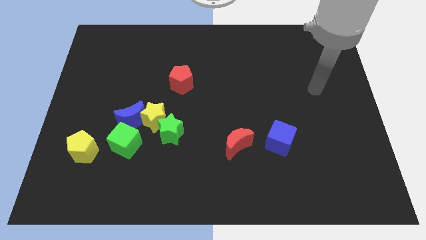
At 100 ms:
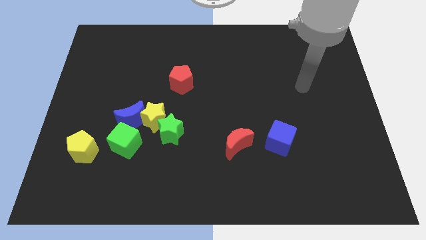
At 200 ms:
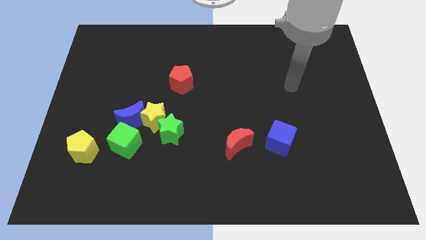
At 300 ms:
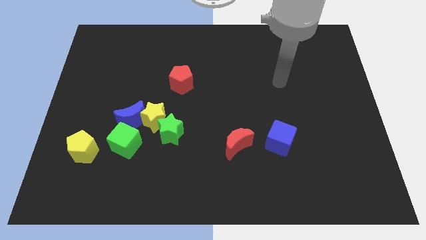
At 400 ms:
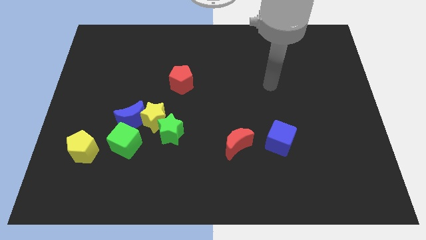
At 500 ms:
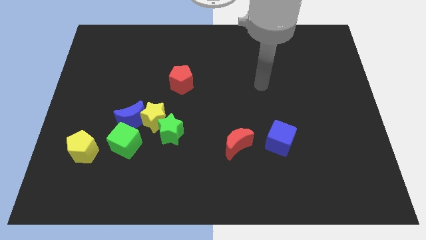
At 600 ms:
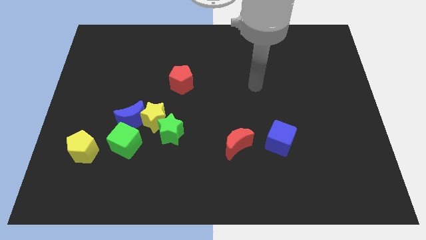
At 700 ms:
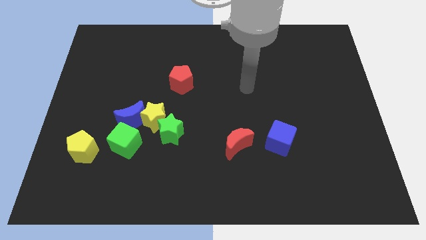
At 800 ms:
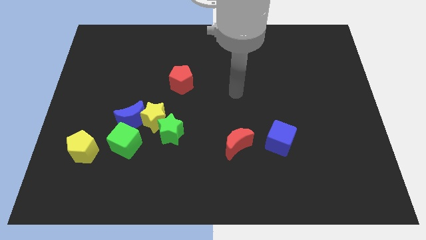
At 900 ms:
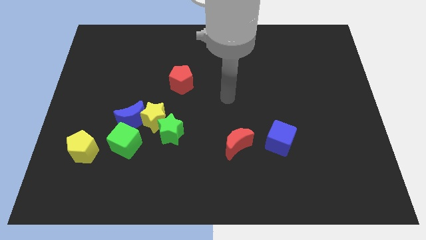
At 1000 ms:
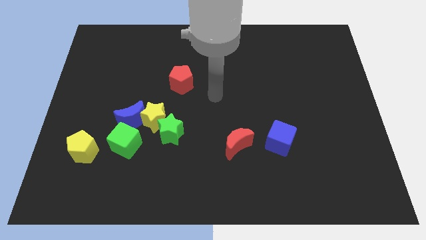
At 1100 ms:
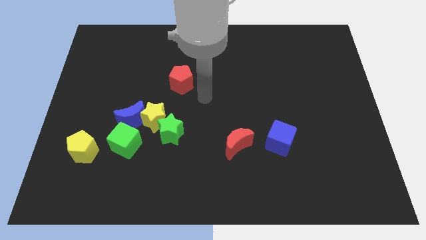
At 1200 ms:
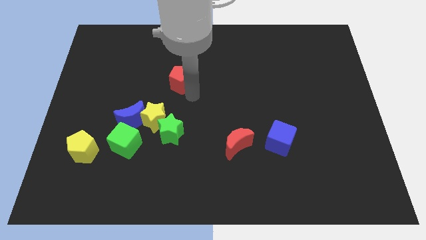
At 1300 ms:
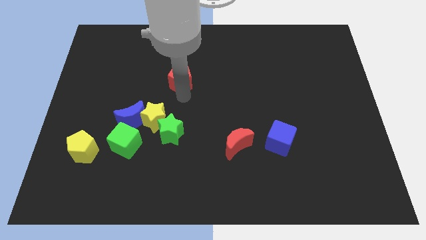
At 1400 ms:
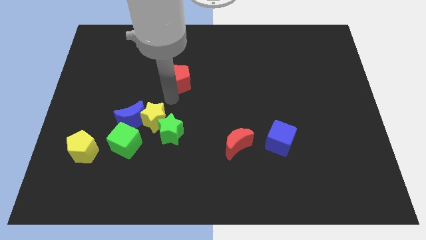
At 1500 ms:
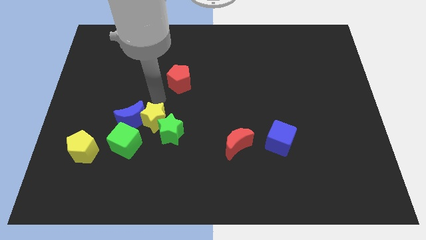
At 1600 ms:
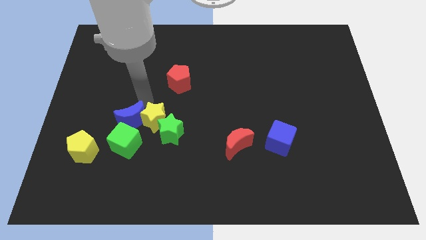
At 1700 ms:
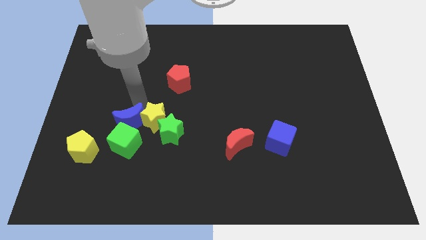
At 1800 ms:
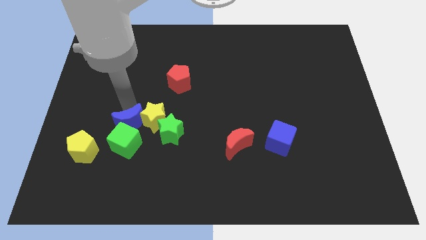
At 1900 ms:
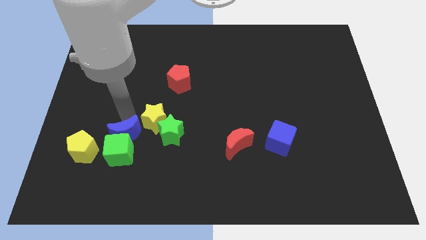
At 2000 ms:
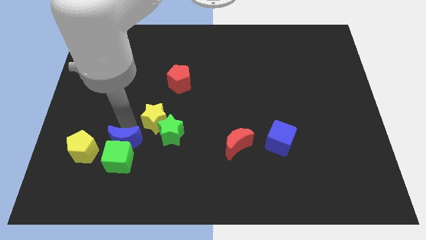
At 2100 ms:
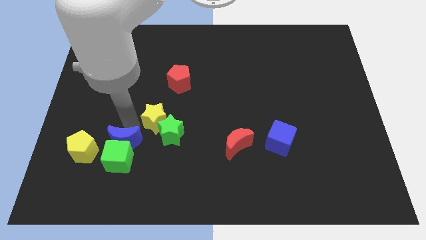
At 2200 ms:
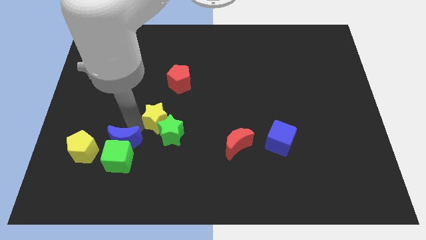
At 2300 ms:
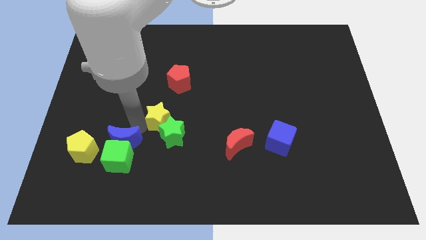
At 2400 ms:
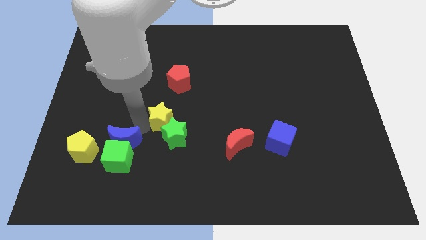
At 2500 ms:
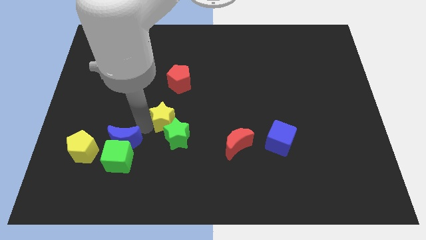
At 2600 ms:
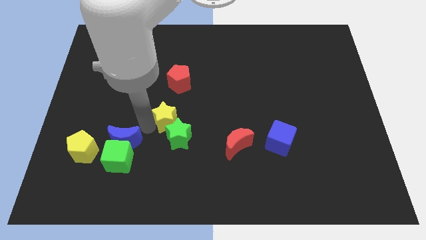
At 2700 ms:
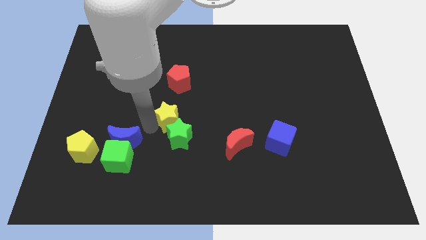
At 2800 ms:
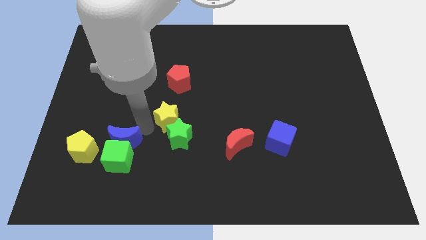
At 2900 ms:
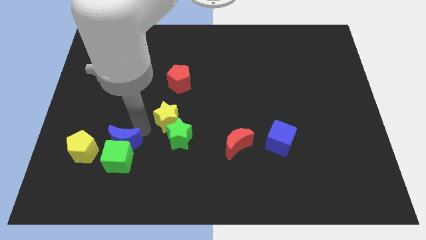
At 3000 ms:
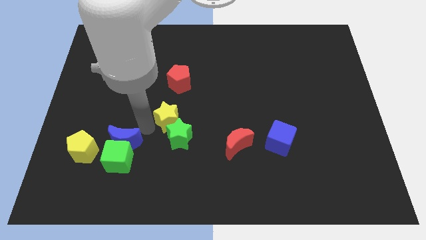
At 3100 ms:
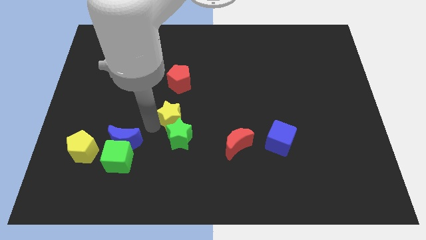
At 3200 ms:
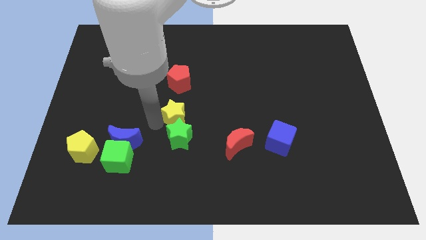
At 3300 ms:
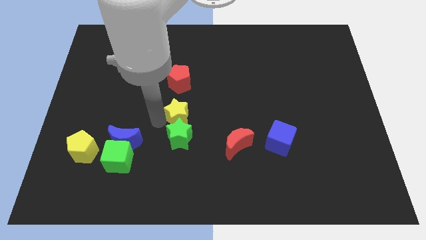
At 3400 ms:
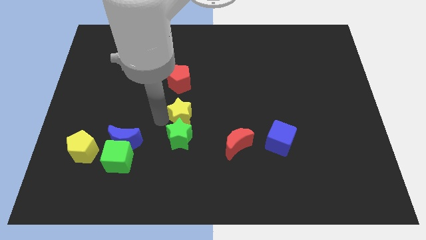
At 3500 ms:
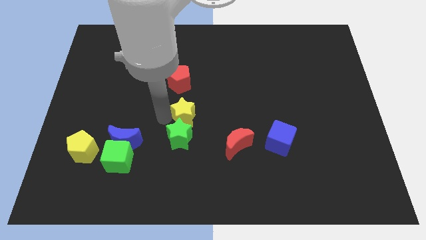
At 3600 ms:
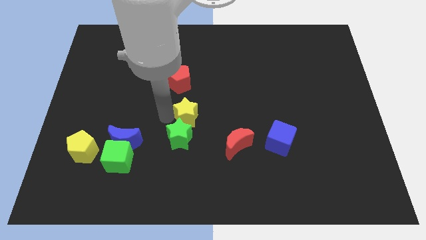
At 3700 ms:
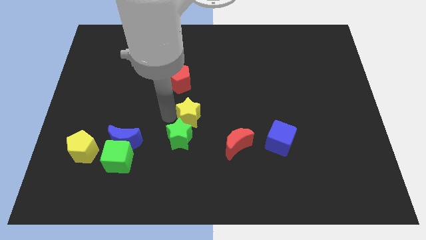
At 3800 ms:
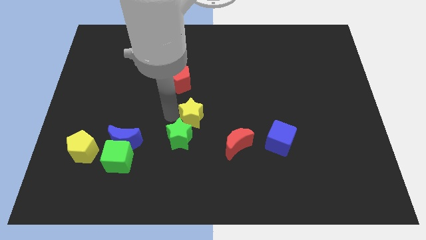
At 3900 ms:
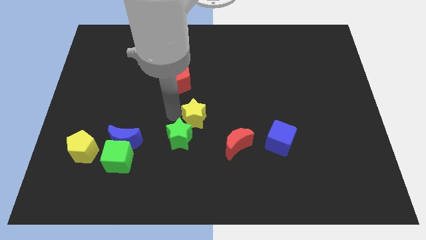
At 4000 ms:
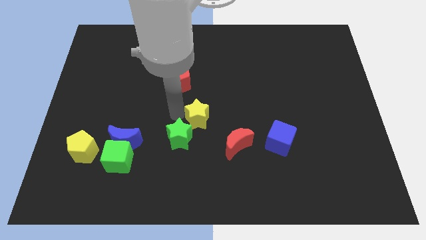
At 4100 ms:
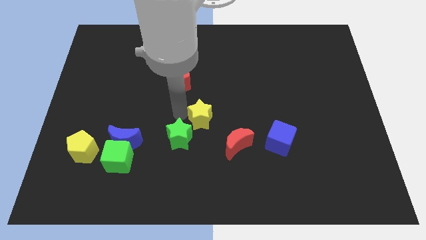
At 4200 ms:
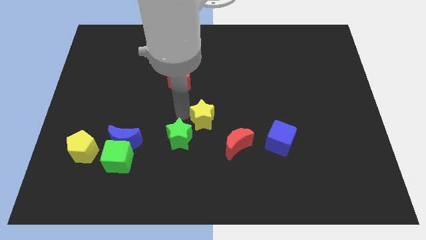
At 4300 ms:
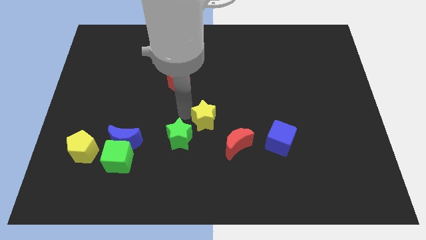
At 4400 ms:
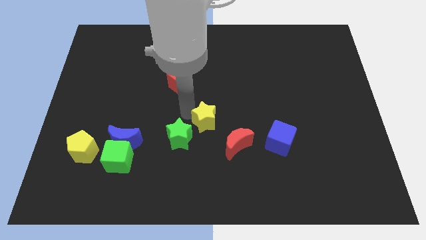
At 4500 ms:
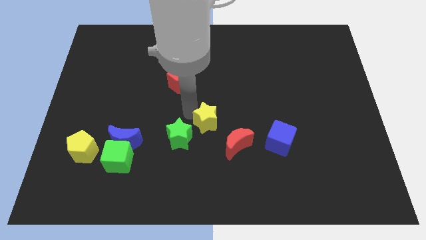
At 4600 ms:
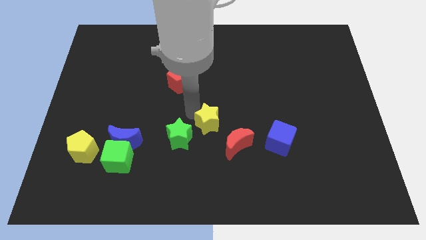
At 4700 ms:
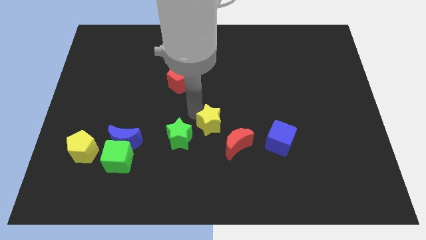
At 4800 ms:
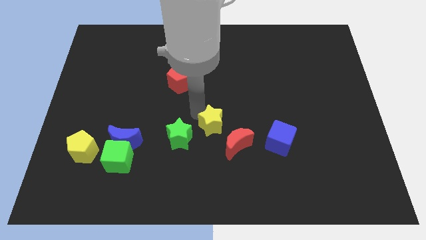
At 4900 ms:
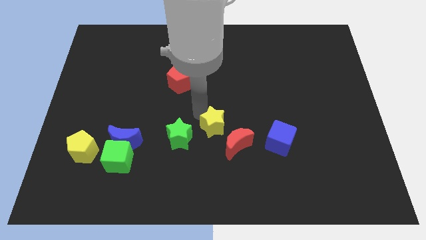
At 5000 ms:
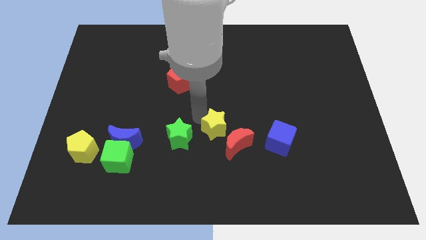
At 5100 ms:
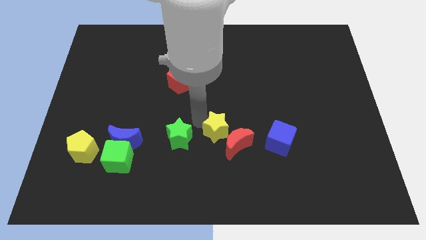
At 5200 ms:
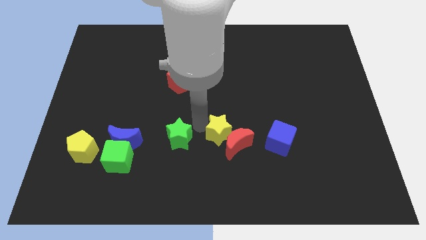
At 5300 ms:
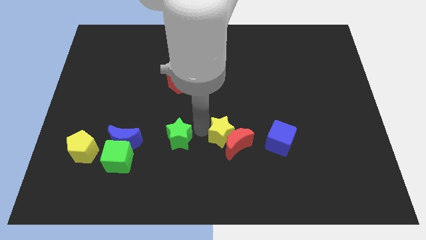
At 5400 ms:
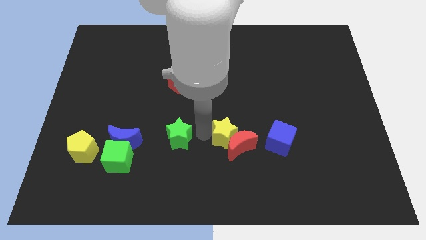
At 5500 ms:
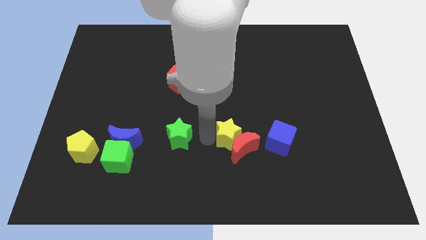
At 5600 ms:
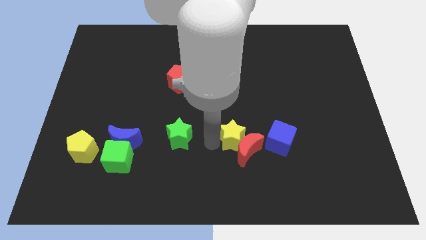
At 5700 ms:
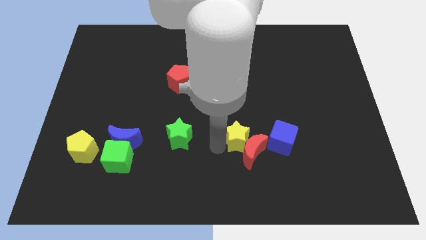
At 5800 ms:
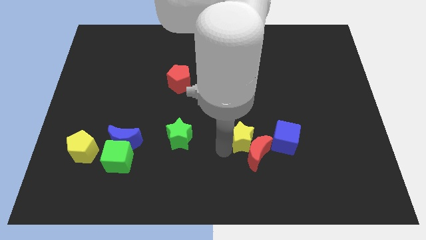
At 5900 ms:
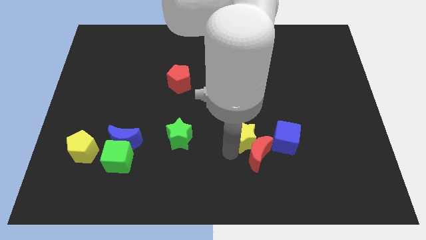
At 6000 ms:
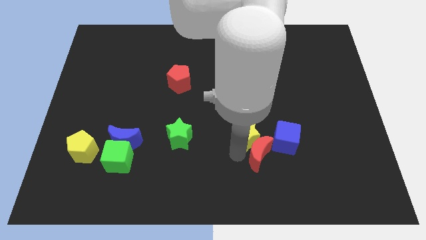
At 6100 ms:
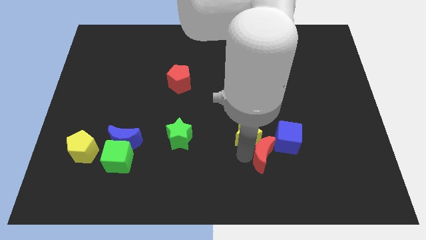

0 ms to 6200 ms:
move the yellow star right

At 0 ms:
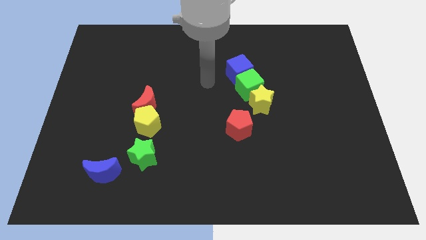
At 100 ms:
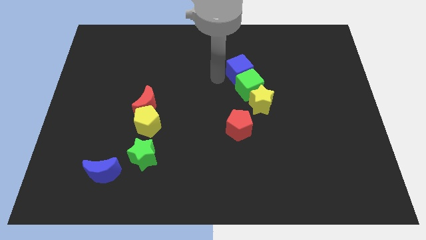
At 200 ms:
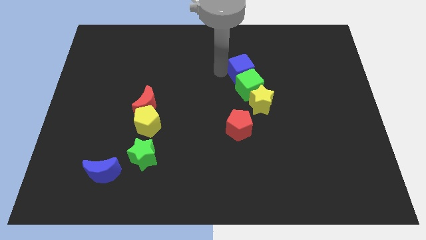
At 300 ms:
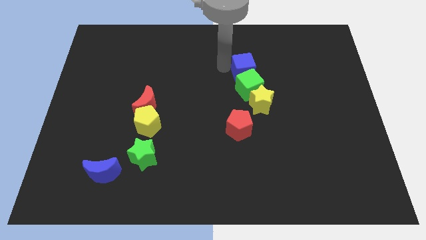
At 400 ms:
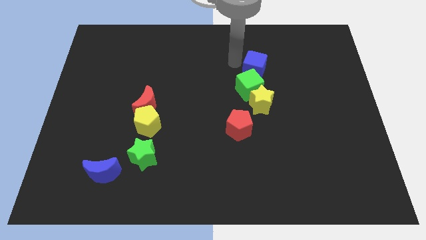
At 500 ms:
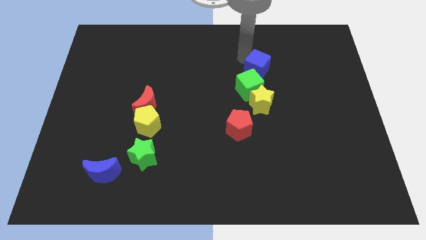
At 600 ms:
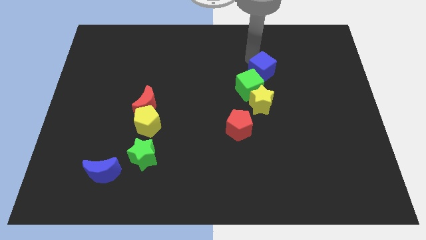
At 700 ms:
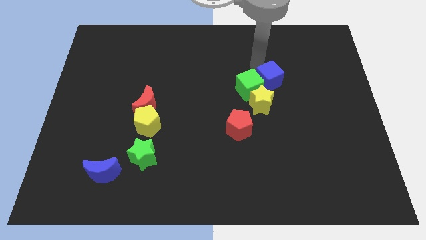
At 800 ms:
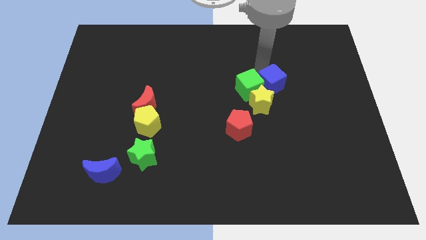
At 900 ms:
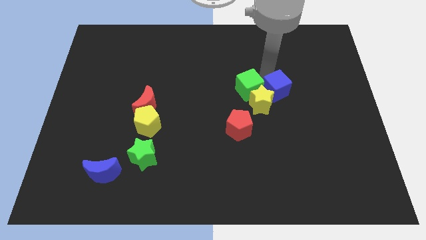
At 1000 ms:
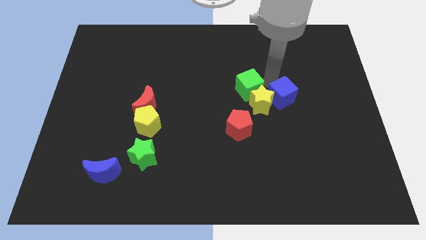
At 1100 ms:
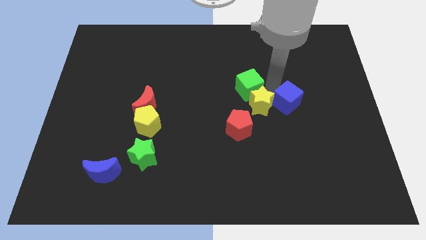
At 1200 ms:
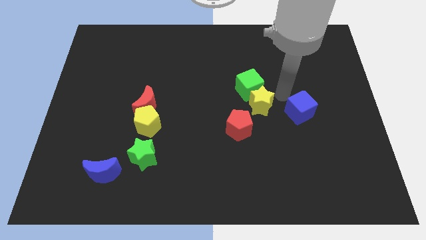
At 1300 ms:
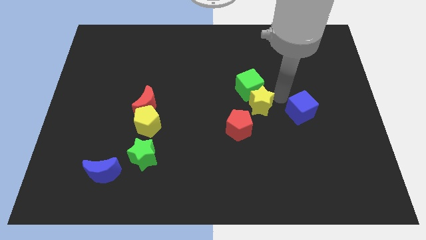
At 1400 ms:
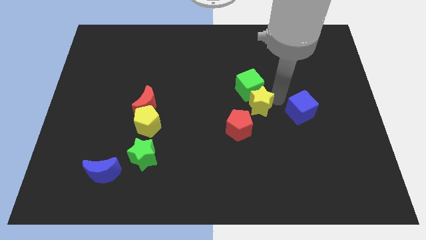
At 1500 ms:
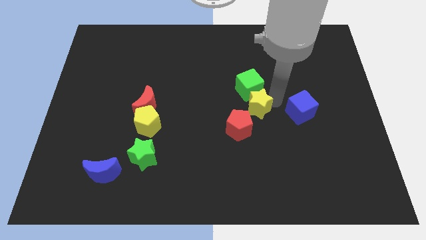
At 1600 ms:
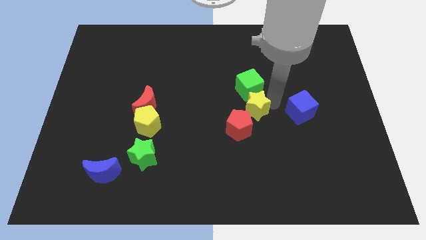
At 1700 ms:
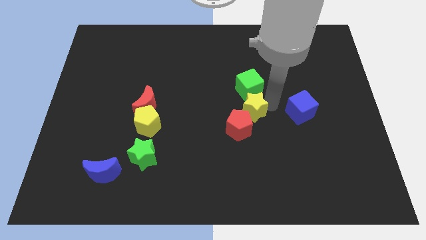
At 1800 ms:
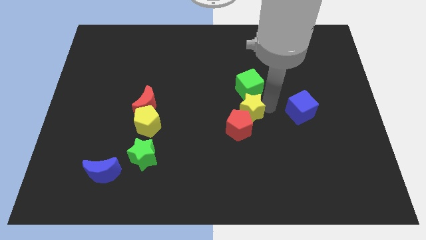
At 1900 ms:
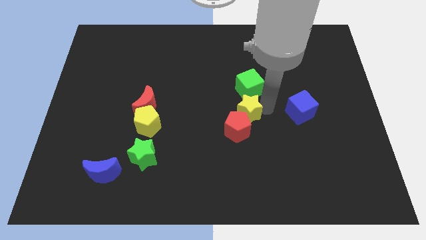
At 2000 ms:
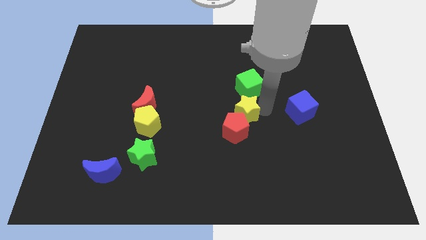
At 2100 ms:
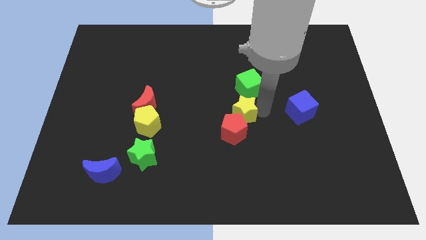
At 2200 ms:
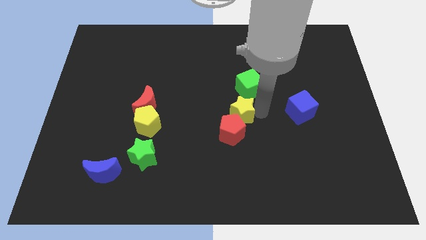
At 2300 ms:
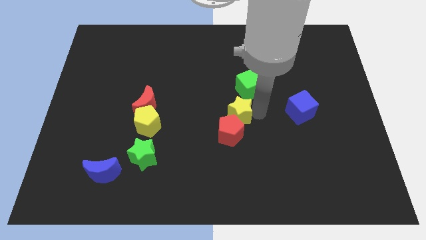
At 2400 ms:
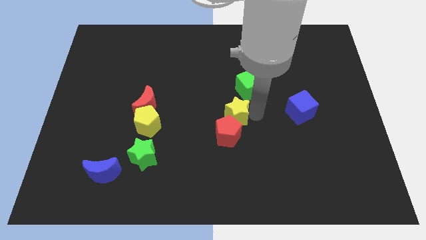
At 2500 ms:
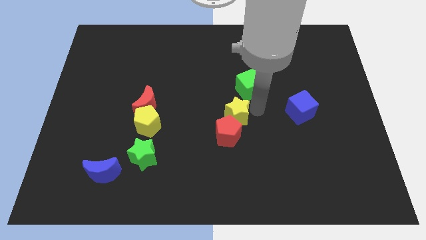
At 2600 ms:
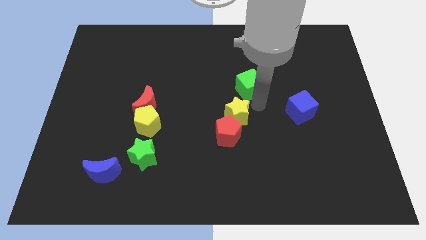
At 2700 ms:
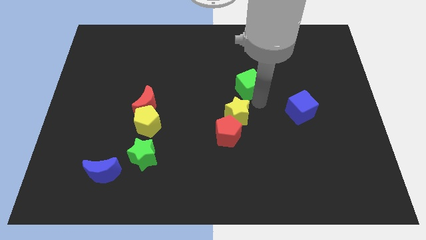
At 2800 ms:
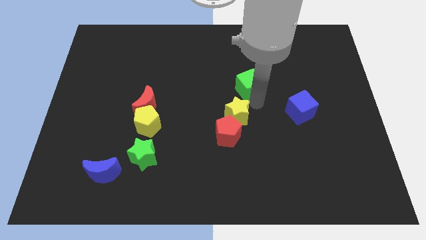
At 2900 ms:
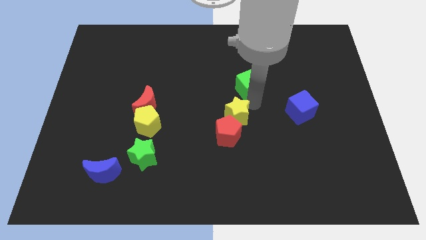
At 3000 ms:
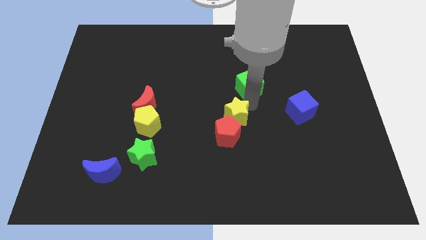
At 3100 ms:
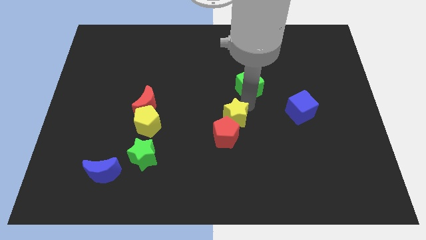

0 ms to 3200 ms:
move the yellow star down and to the left diagonally slightly
